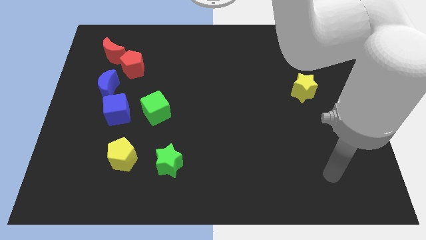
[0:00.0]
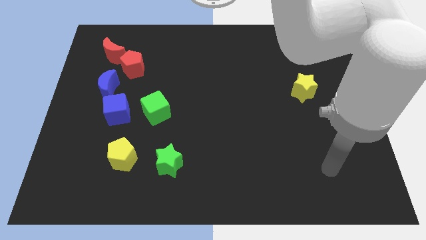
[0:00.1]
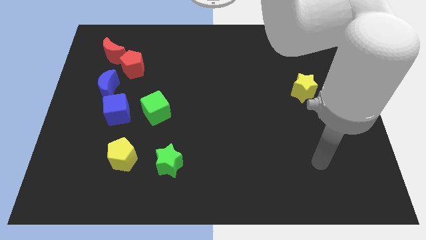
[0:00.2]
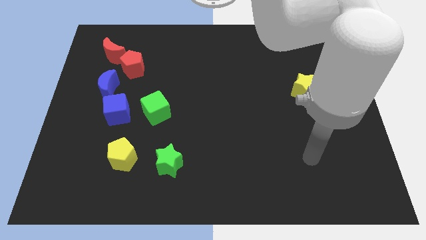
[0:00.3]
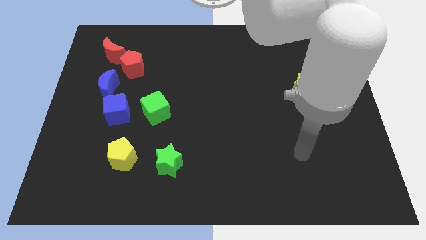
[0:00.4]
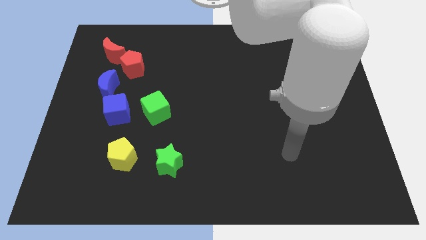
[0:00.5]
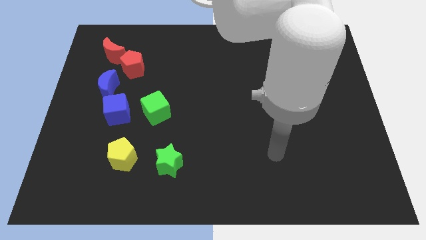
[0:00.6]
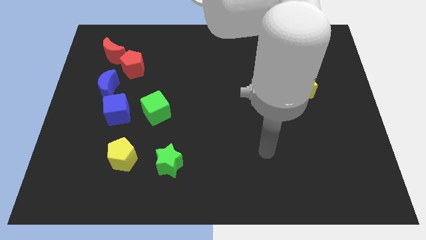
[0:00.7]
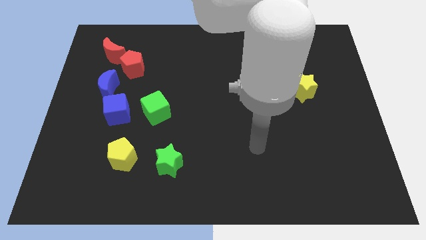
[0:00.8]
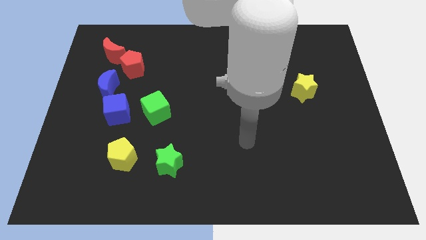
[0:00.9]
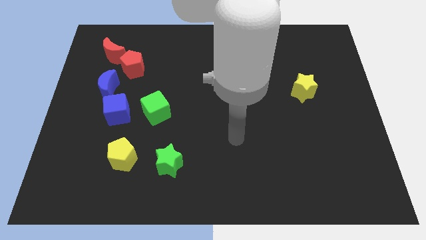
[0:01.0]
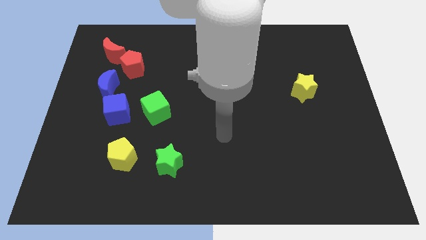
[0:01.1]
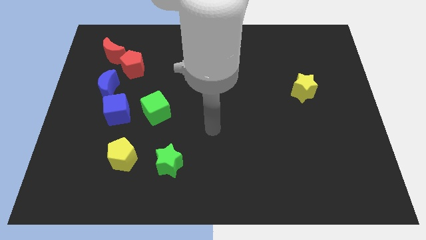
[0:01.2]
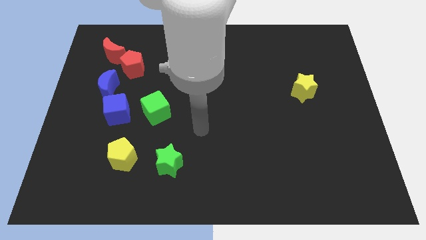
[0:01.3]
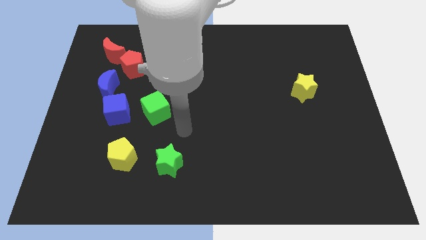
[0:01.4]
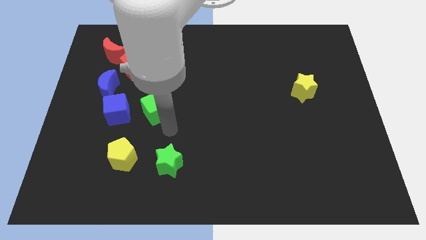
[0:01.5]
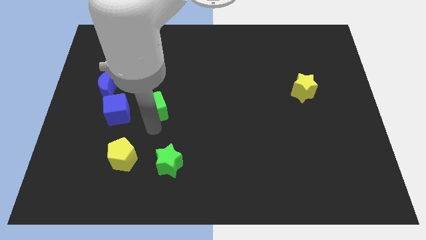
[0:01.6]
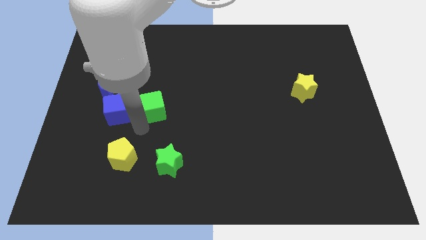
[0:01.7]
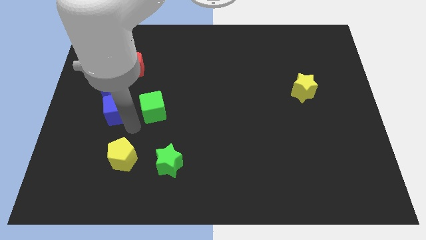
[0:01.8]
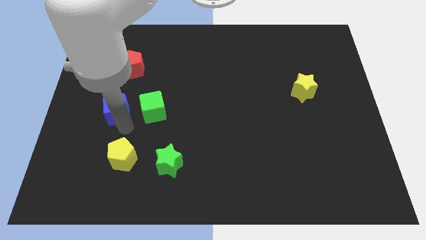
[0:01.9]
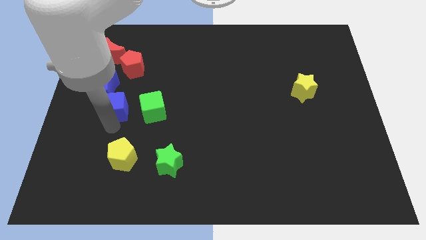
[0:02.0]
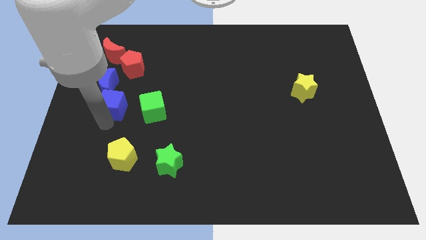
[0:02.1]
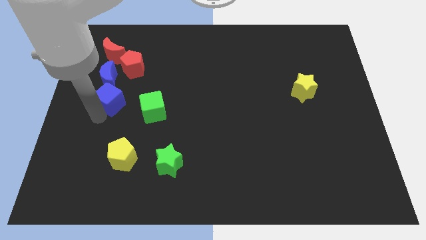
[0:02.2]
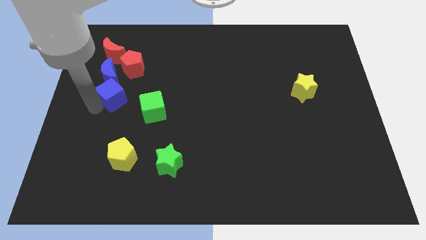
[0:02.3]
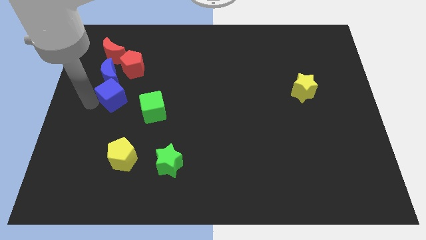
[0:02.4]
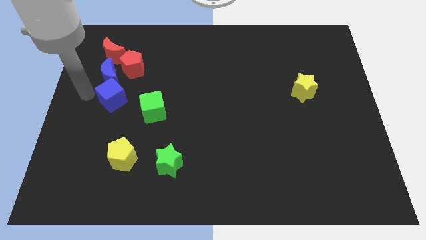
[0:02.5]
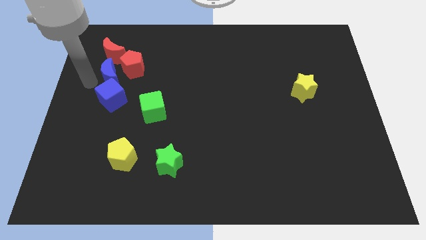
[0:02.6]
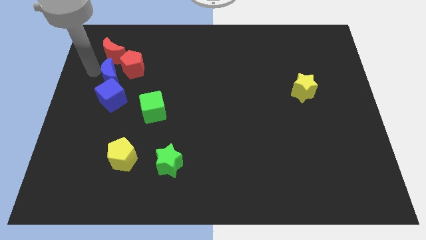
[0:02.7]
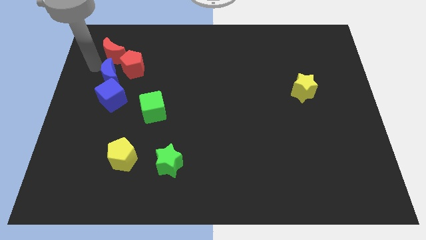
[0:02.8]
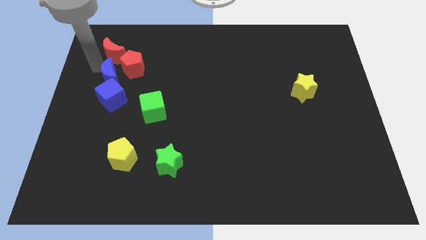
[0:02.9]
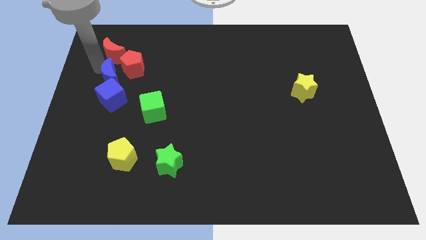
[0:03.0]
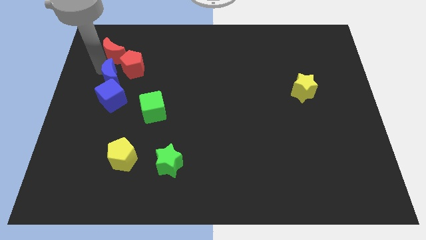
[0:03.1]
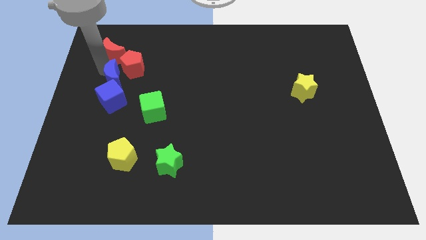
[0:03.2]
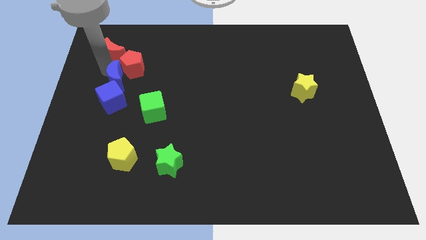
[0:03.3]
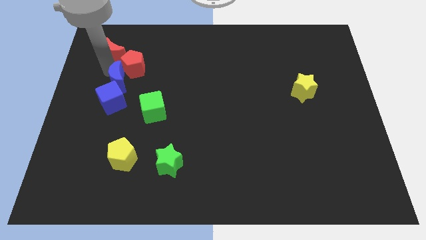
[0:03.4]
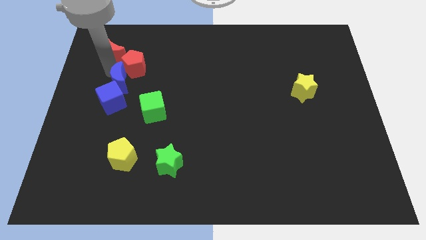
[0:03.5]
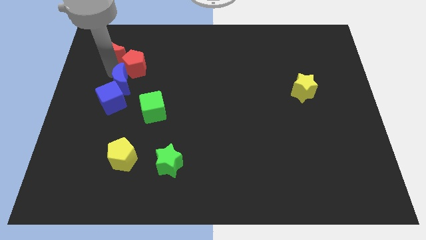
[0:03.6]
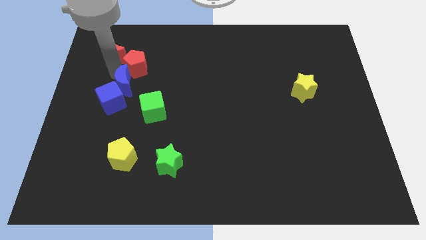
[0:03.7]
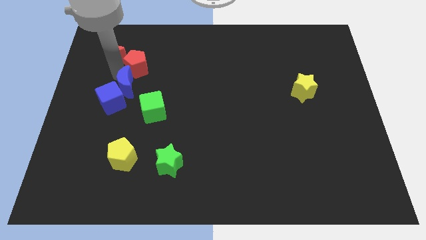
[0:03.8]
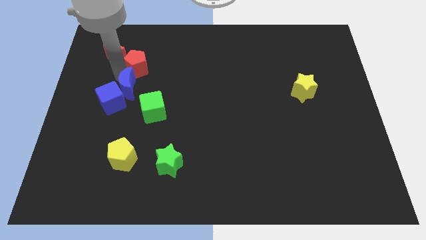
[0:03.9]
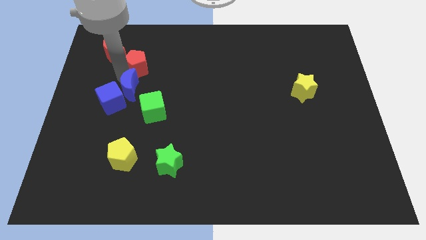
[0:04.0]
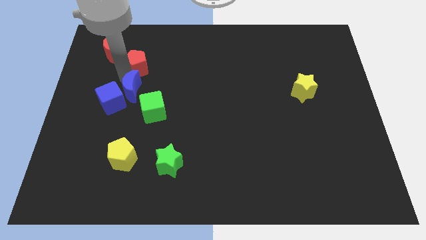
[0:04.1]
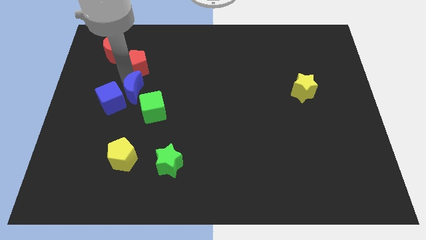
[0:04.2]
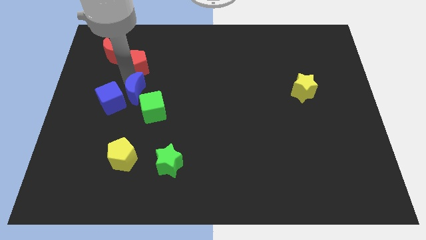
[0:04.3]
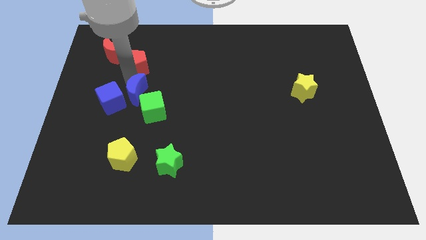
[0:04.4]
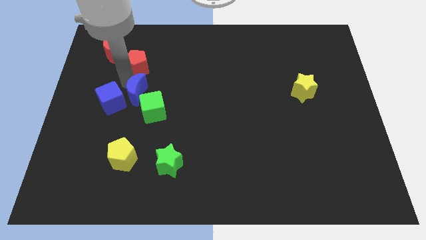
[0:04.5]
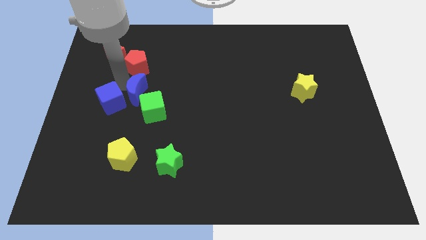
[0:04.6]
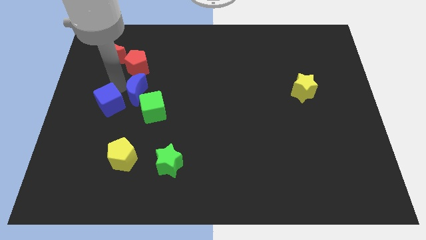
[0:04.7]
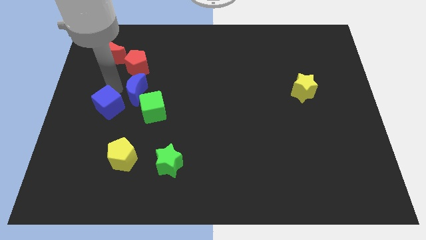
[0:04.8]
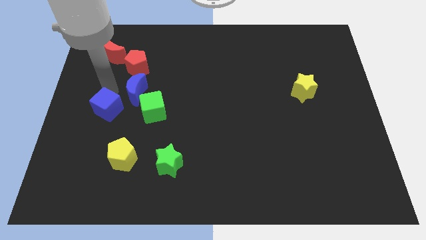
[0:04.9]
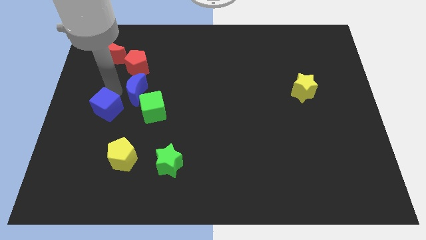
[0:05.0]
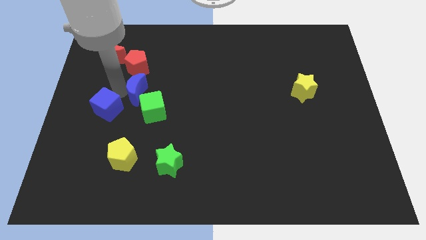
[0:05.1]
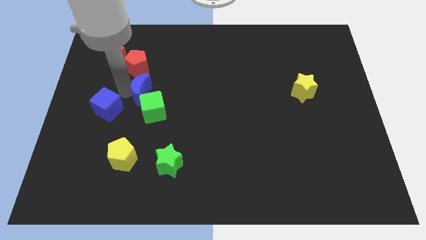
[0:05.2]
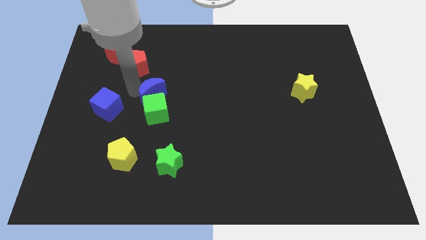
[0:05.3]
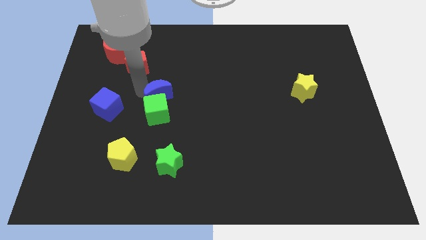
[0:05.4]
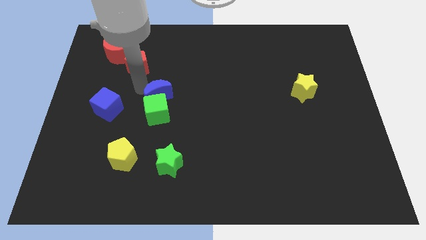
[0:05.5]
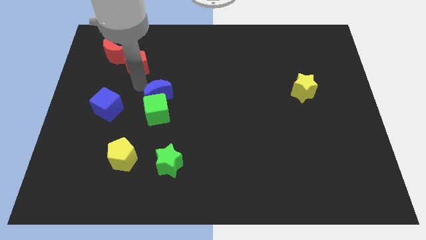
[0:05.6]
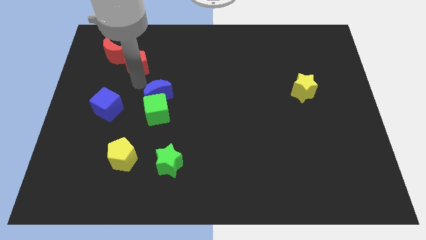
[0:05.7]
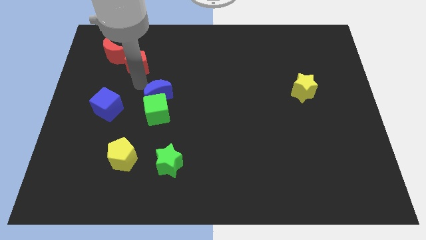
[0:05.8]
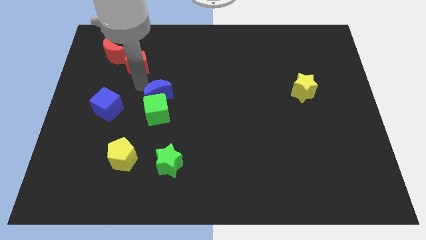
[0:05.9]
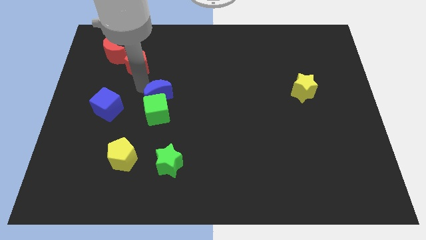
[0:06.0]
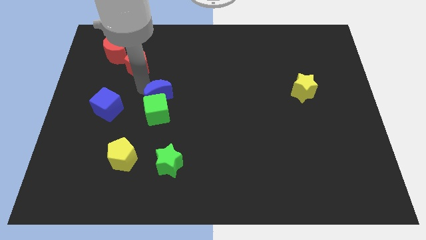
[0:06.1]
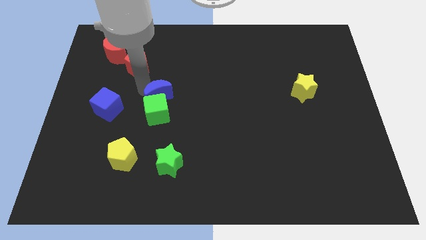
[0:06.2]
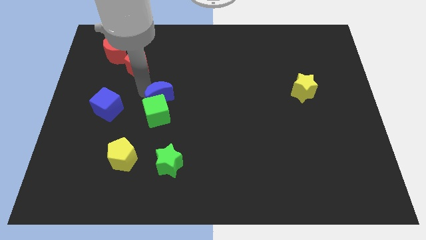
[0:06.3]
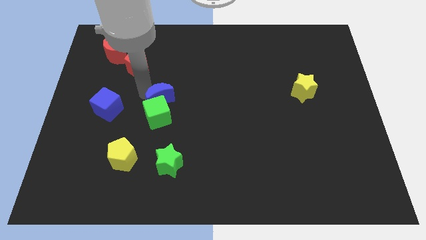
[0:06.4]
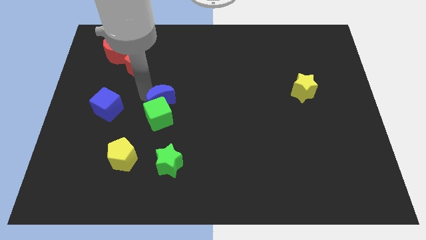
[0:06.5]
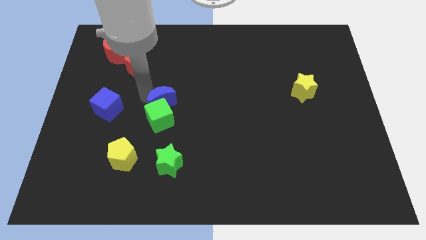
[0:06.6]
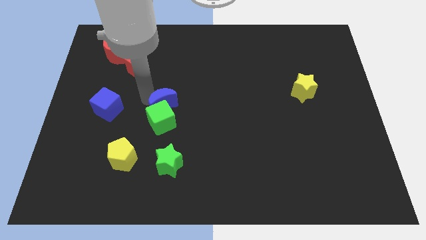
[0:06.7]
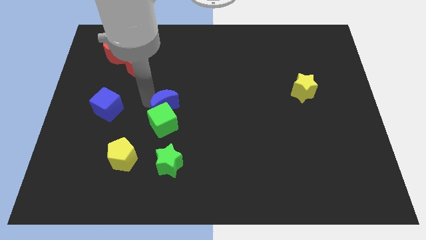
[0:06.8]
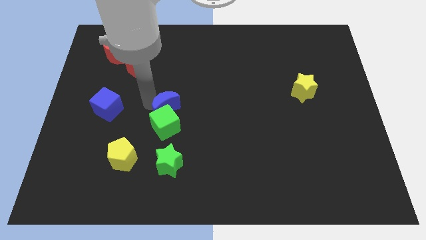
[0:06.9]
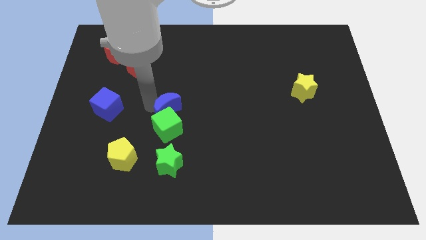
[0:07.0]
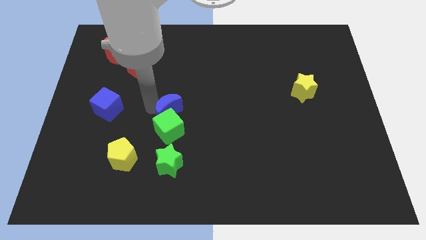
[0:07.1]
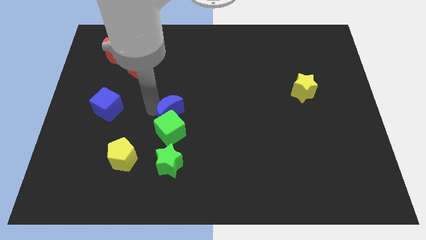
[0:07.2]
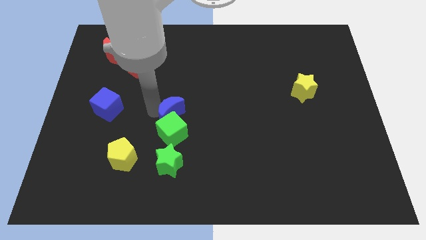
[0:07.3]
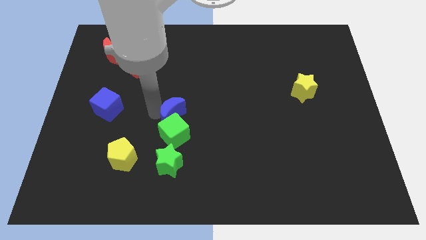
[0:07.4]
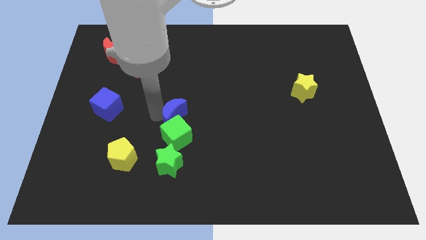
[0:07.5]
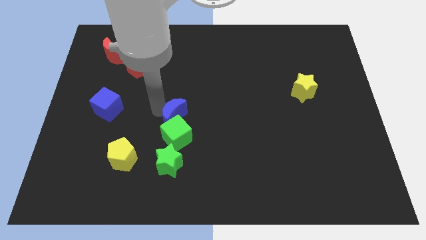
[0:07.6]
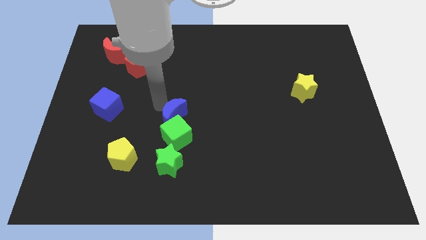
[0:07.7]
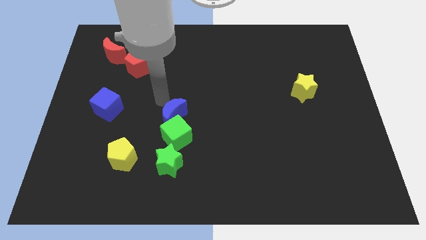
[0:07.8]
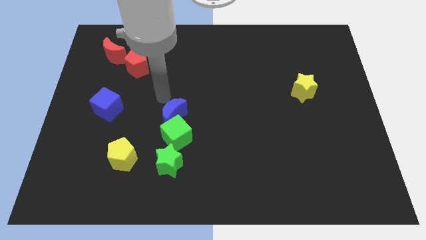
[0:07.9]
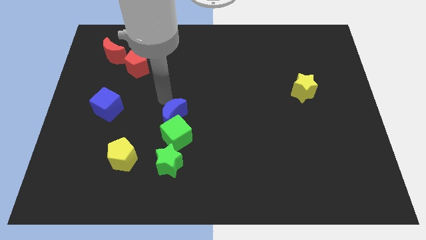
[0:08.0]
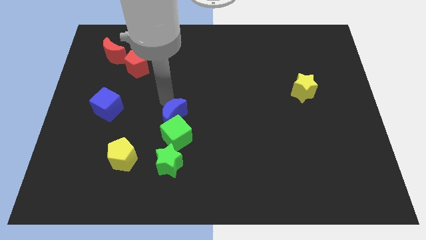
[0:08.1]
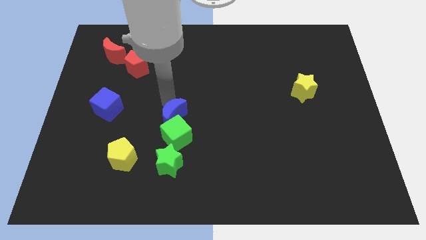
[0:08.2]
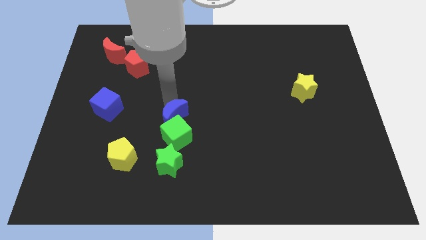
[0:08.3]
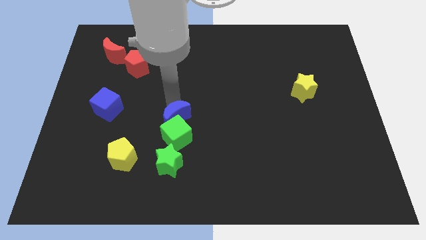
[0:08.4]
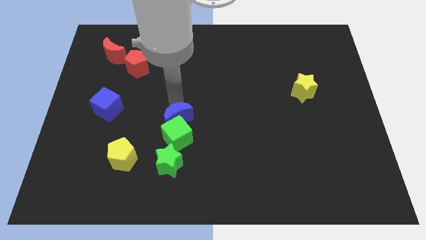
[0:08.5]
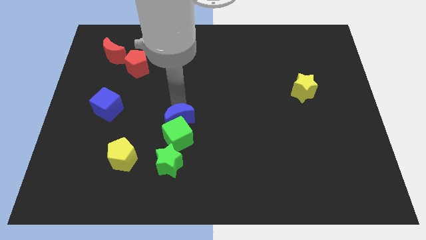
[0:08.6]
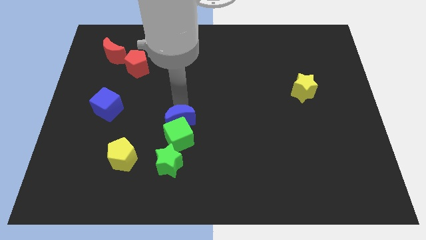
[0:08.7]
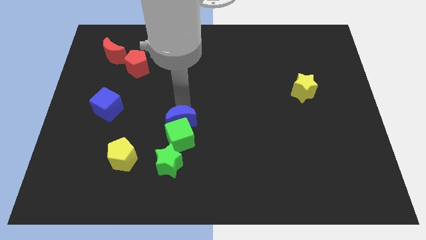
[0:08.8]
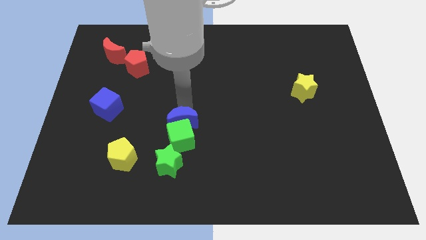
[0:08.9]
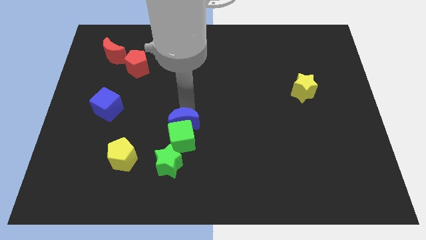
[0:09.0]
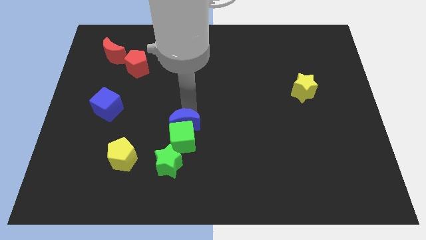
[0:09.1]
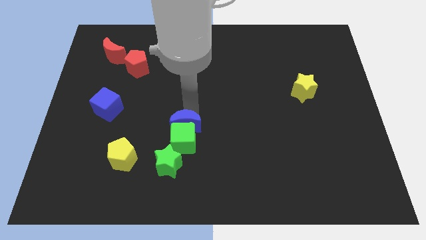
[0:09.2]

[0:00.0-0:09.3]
slide the blue moon downwards and to the right
